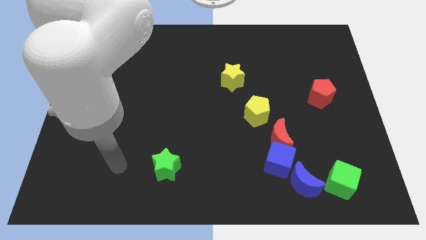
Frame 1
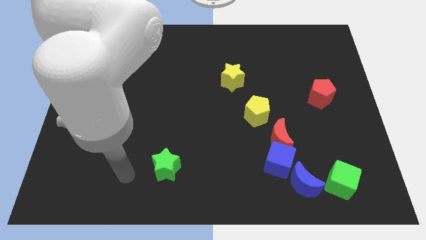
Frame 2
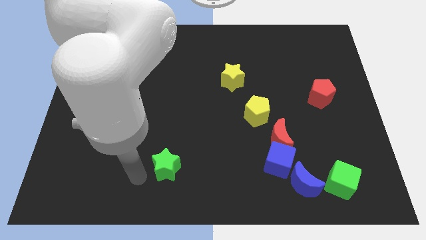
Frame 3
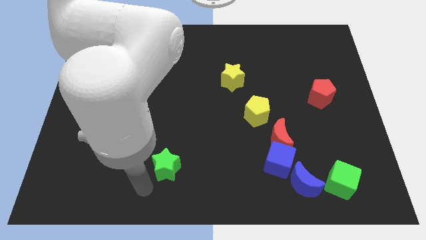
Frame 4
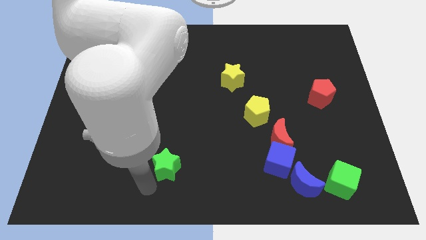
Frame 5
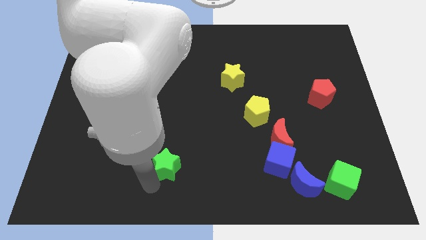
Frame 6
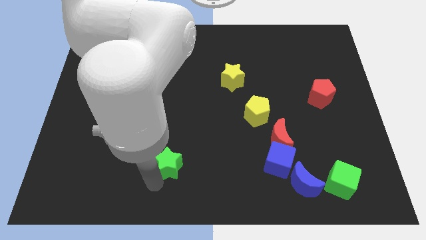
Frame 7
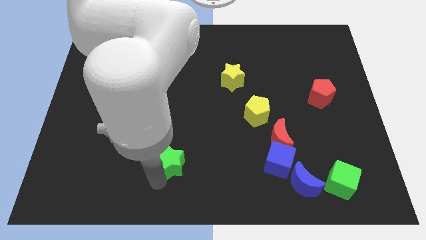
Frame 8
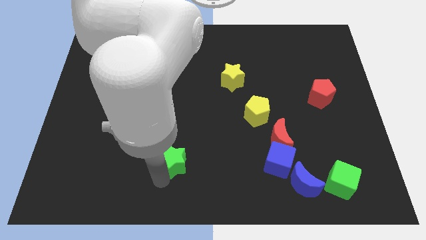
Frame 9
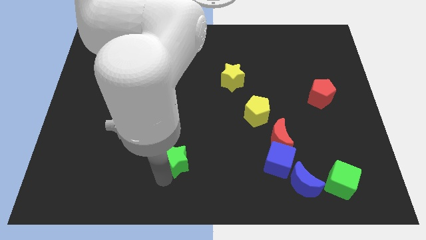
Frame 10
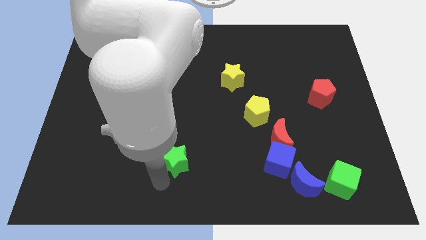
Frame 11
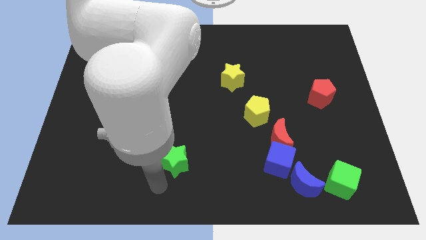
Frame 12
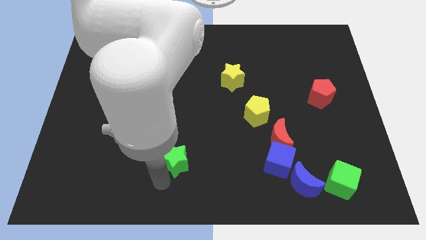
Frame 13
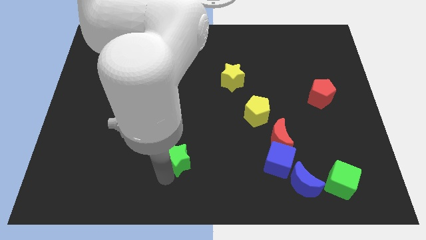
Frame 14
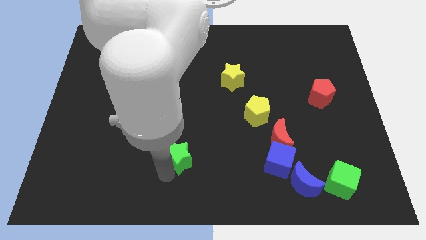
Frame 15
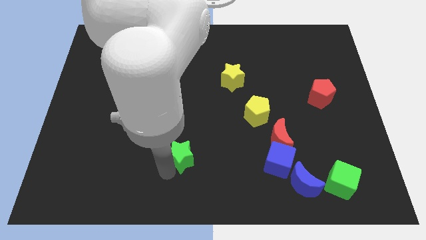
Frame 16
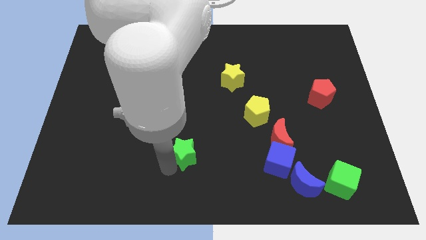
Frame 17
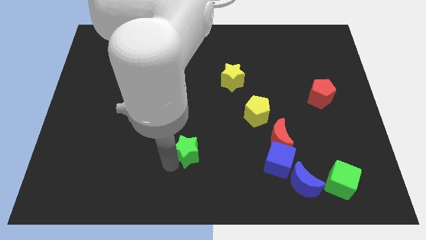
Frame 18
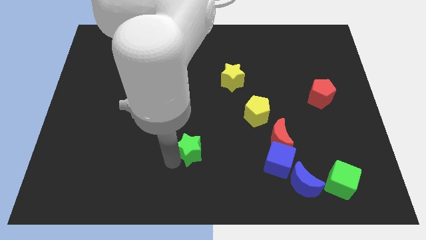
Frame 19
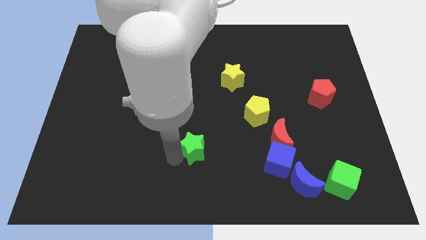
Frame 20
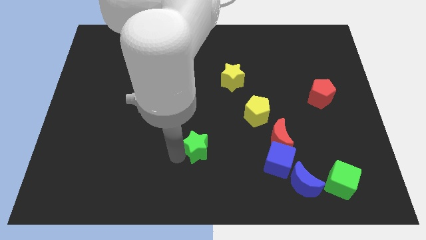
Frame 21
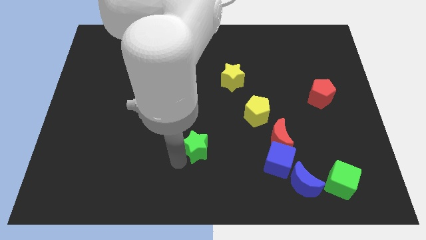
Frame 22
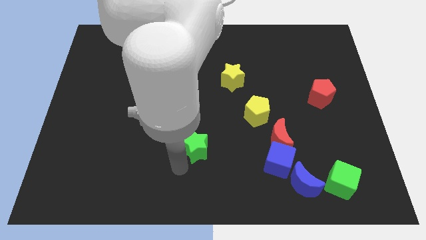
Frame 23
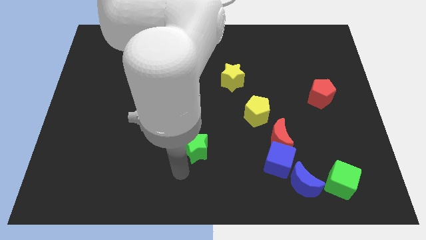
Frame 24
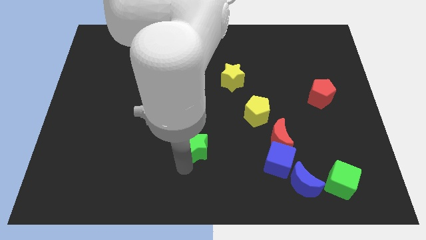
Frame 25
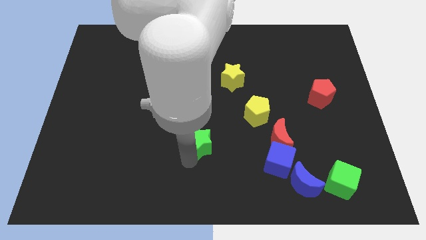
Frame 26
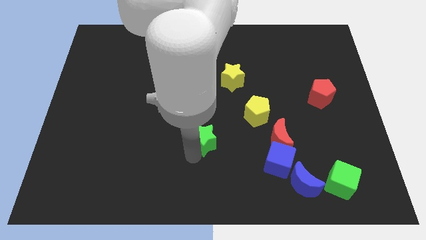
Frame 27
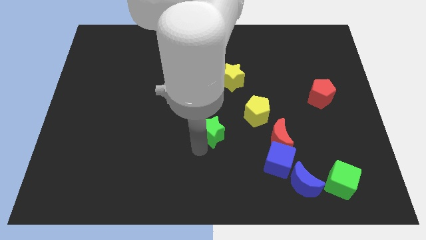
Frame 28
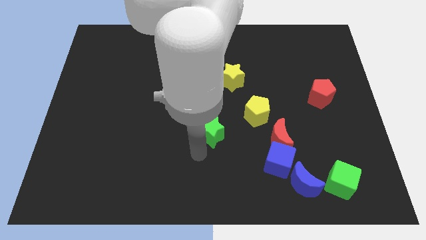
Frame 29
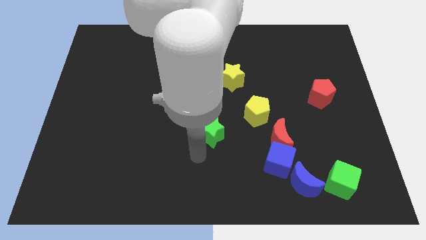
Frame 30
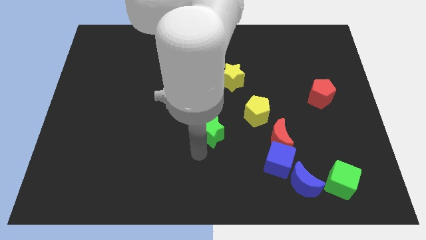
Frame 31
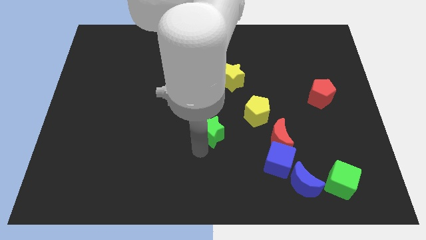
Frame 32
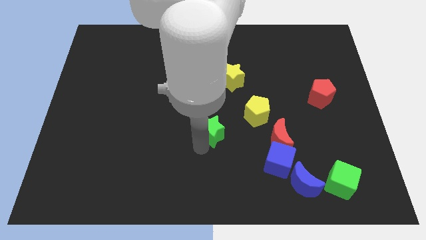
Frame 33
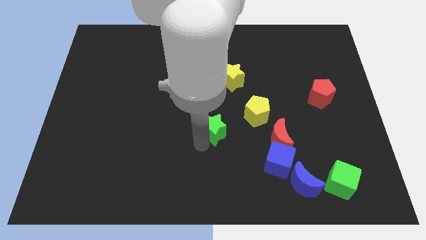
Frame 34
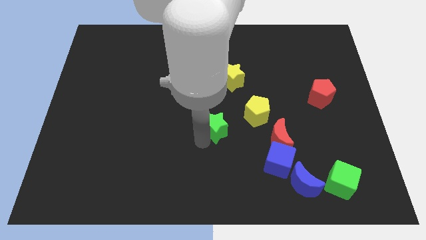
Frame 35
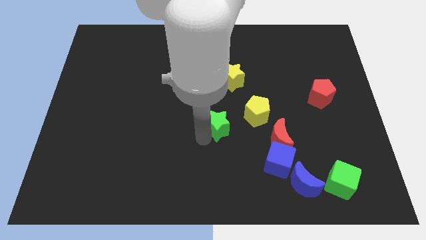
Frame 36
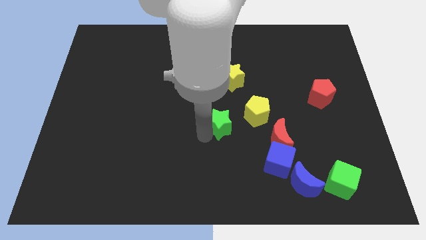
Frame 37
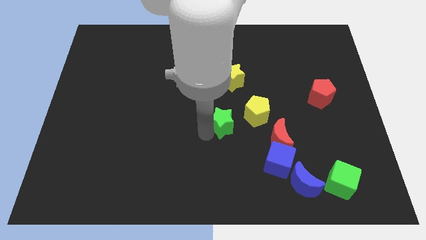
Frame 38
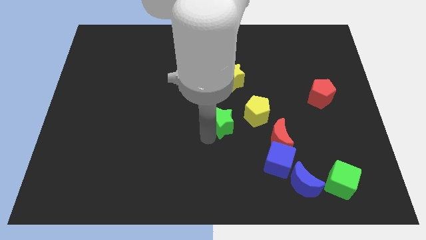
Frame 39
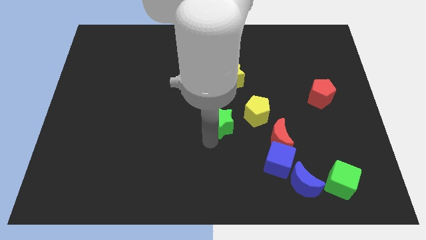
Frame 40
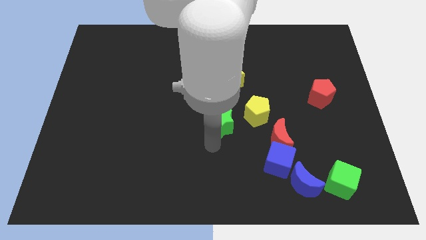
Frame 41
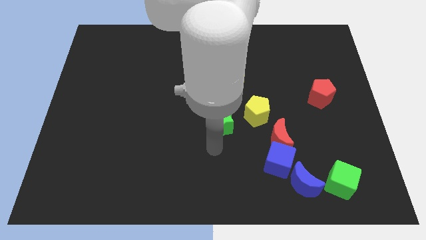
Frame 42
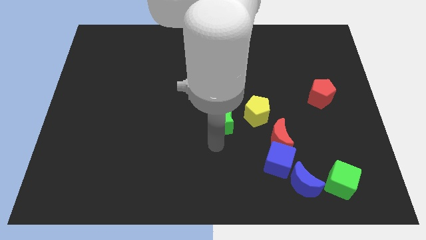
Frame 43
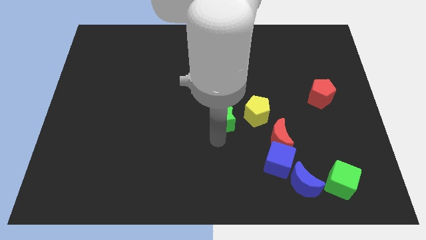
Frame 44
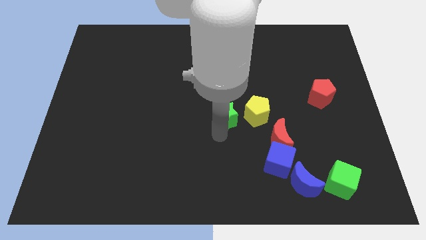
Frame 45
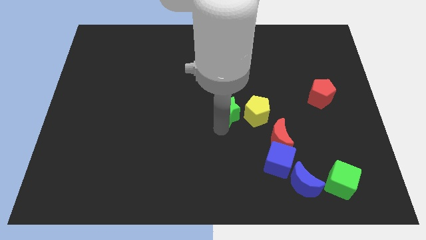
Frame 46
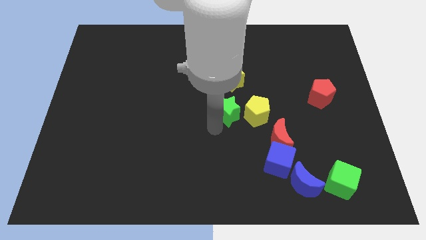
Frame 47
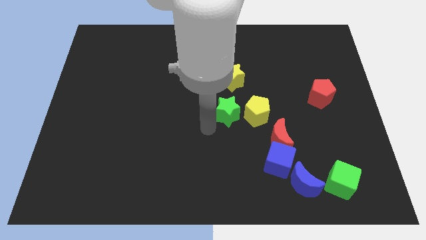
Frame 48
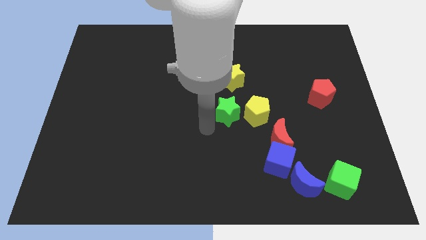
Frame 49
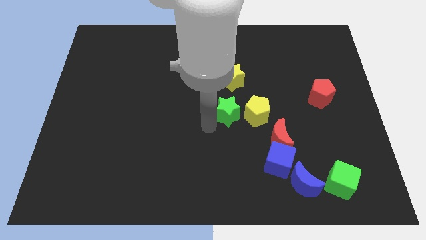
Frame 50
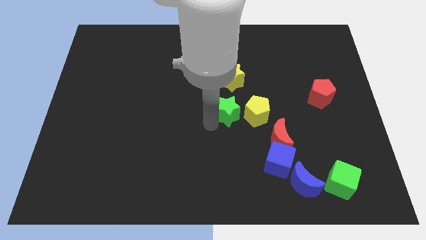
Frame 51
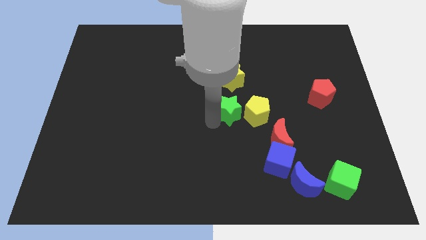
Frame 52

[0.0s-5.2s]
push the green star diagonally upwards and right

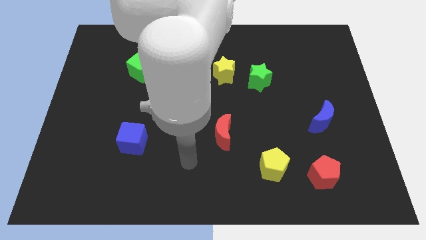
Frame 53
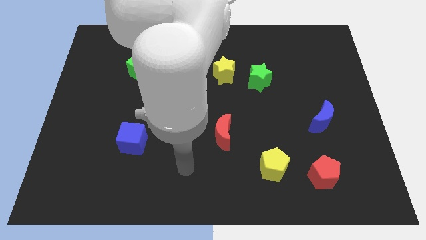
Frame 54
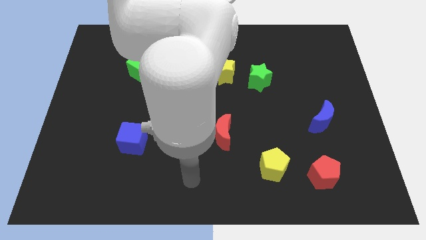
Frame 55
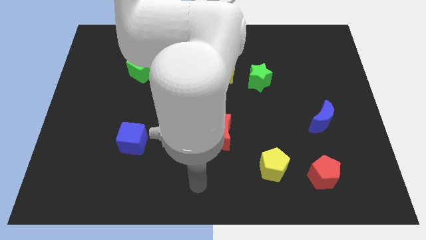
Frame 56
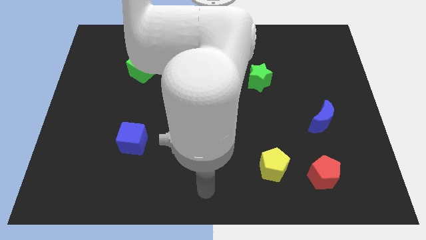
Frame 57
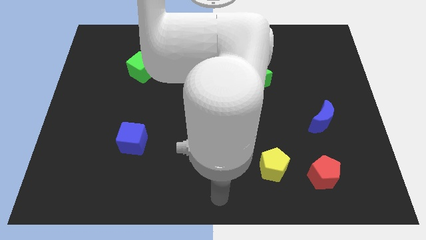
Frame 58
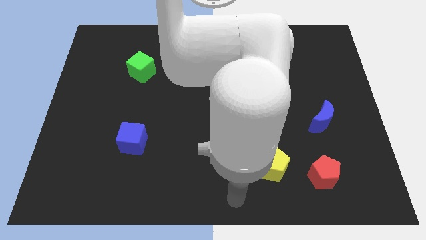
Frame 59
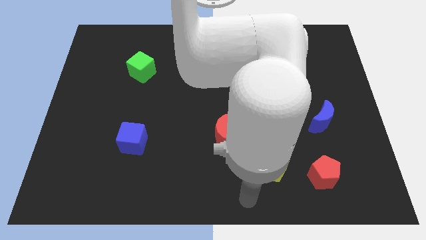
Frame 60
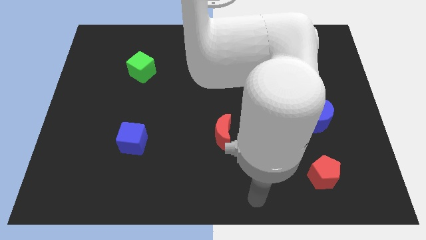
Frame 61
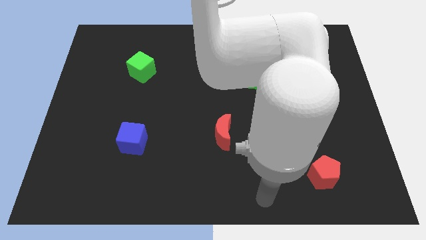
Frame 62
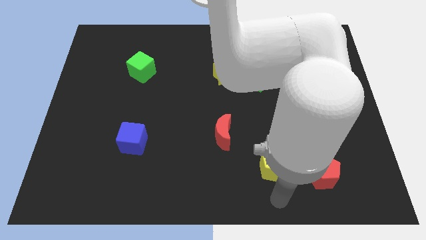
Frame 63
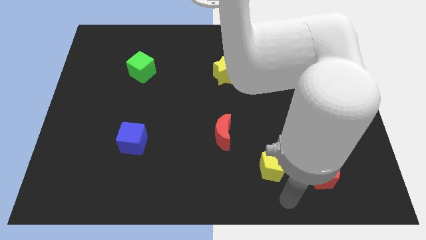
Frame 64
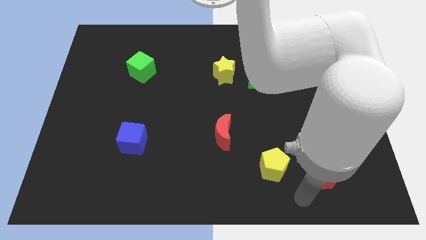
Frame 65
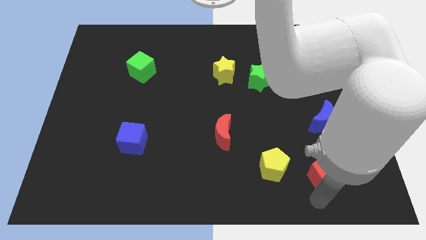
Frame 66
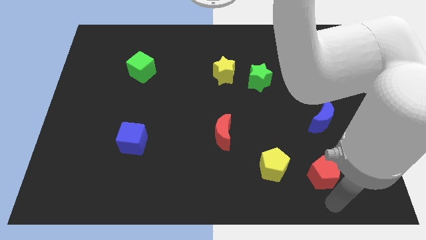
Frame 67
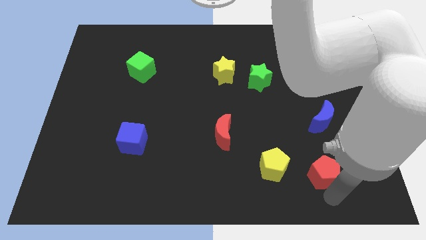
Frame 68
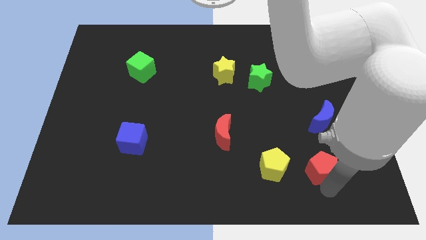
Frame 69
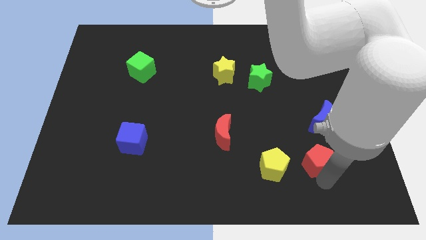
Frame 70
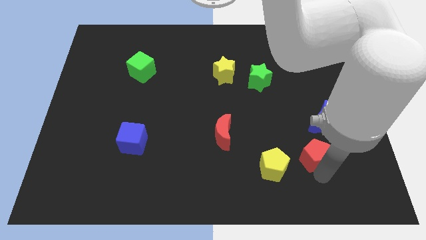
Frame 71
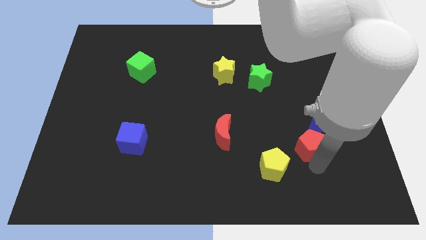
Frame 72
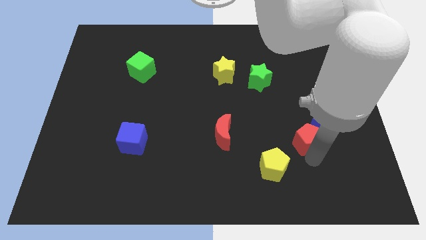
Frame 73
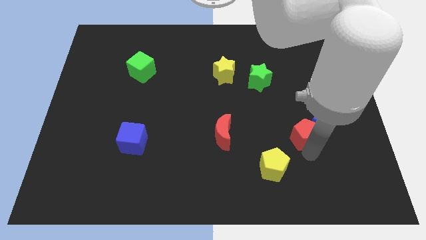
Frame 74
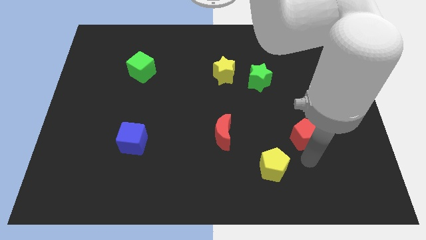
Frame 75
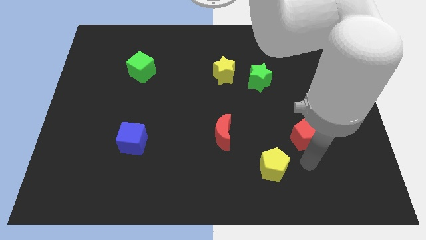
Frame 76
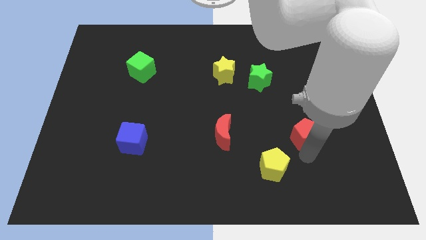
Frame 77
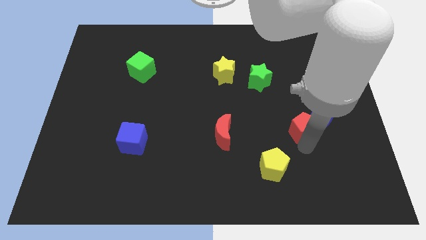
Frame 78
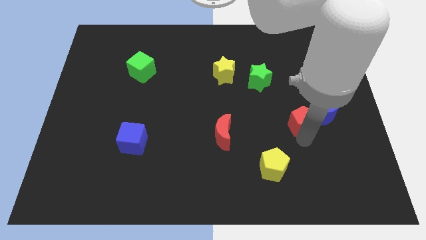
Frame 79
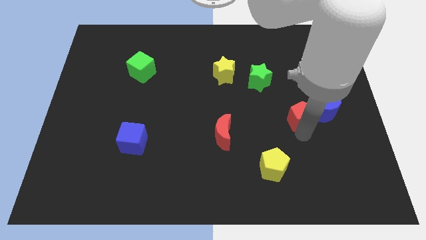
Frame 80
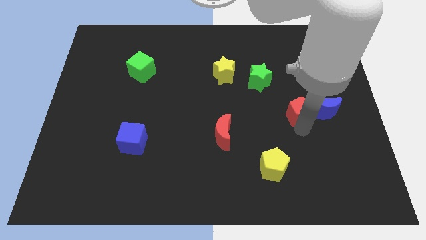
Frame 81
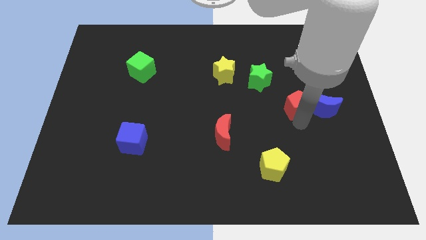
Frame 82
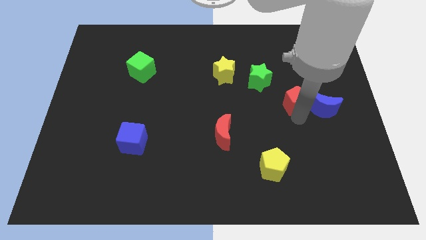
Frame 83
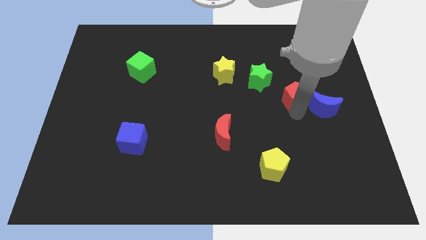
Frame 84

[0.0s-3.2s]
push the red pentagon upwards
